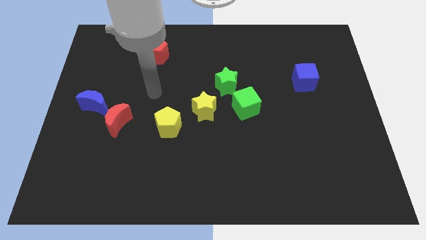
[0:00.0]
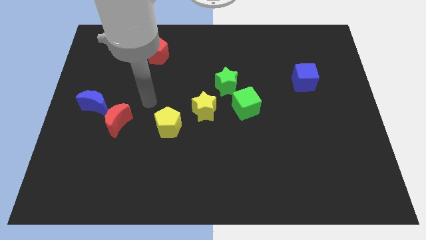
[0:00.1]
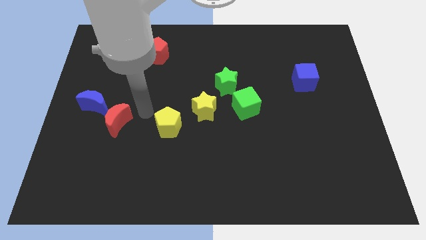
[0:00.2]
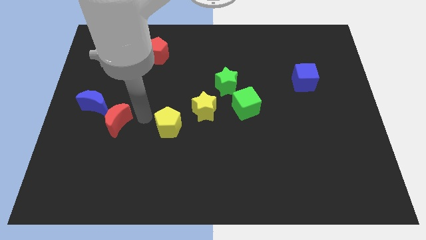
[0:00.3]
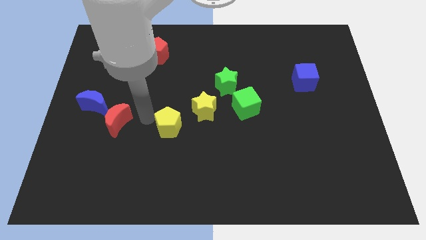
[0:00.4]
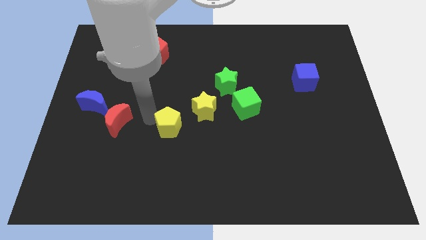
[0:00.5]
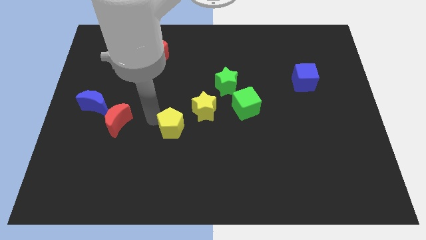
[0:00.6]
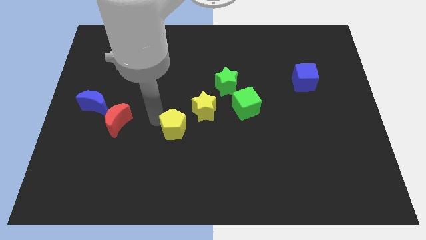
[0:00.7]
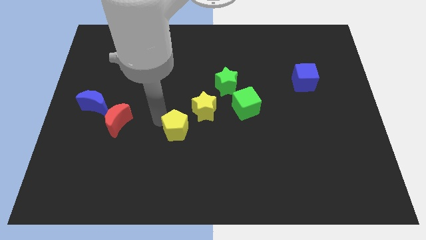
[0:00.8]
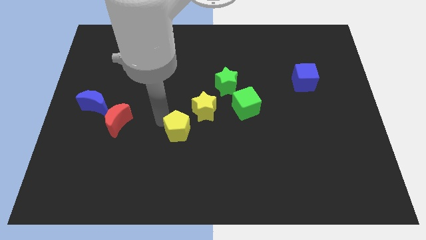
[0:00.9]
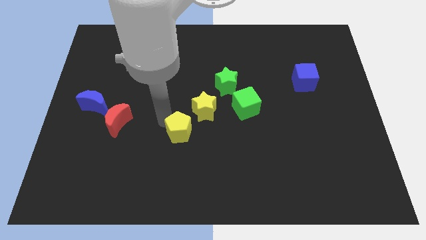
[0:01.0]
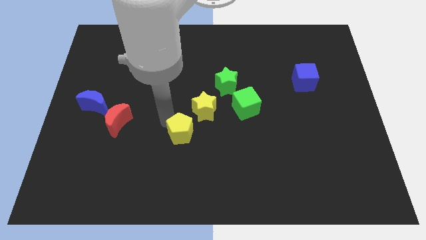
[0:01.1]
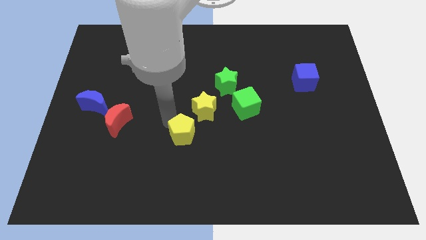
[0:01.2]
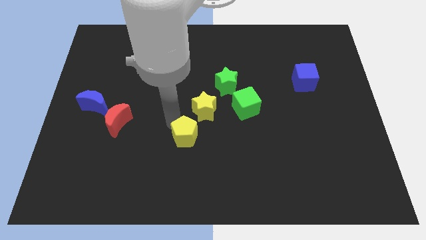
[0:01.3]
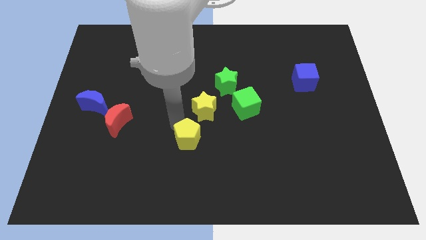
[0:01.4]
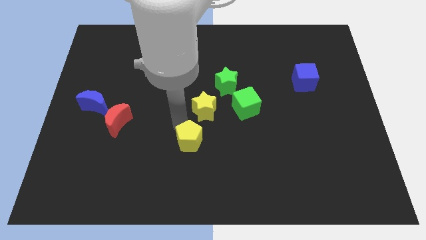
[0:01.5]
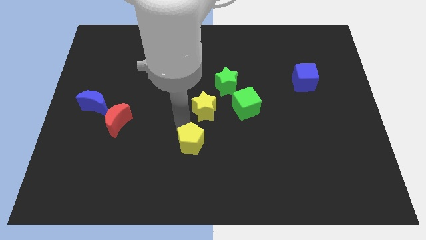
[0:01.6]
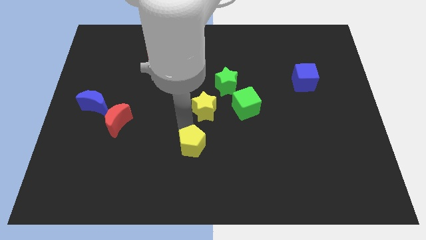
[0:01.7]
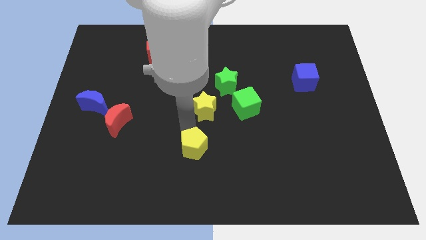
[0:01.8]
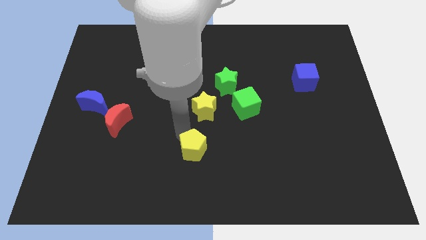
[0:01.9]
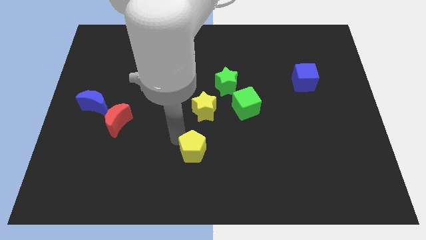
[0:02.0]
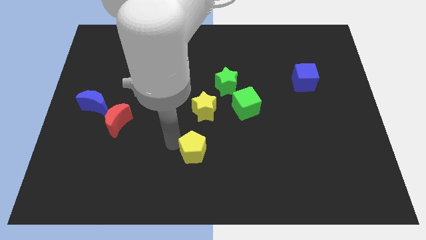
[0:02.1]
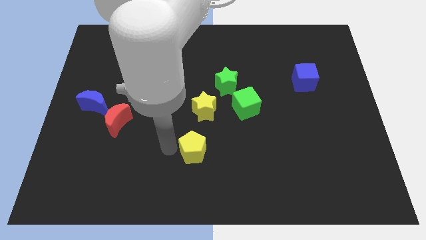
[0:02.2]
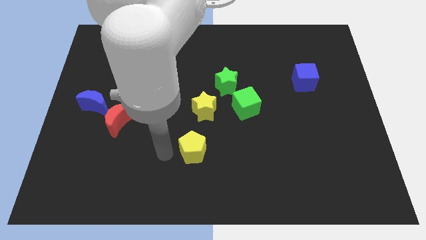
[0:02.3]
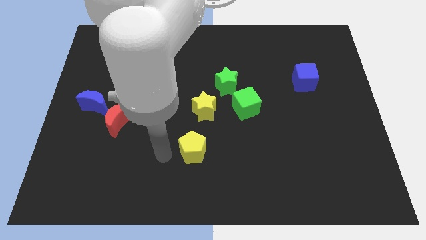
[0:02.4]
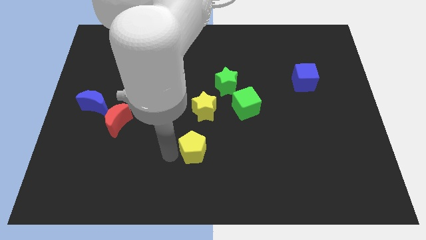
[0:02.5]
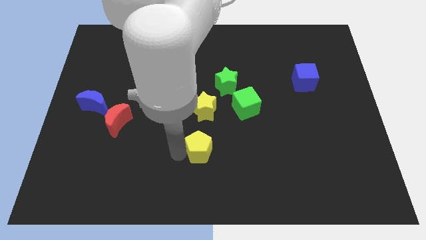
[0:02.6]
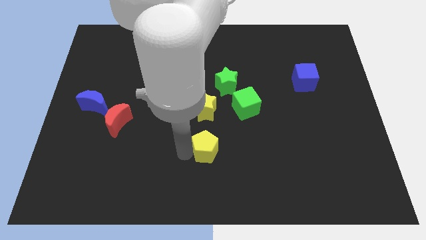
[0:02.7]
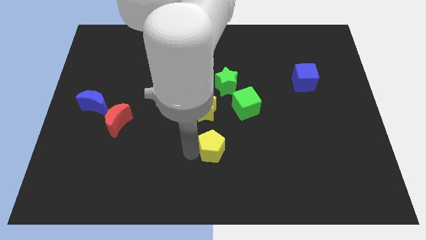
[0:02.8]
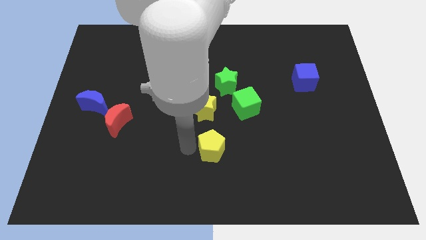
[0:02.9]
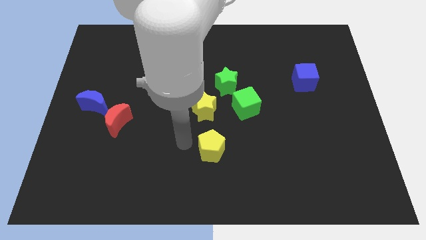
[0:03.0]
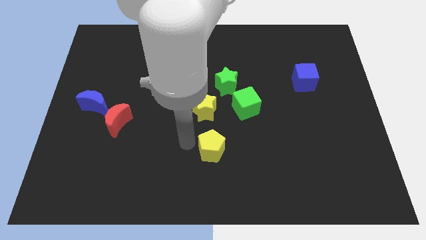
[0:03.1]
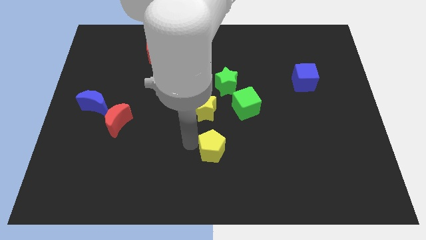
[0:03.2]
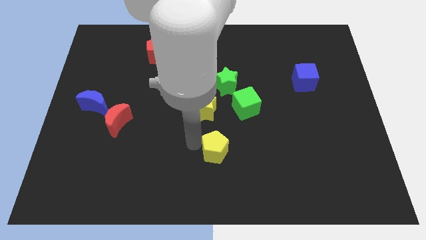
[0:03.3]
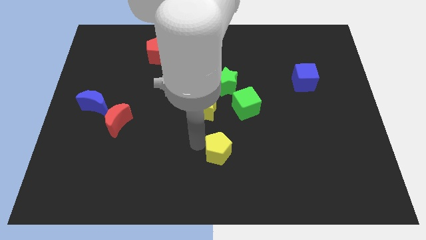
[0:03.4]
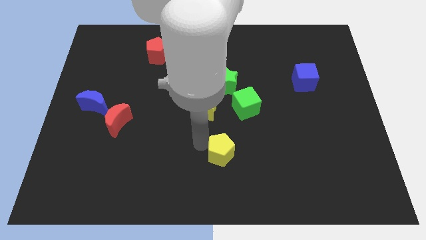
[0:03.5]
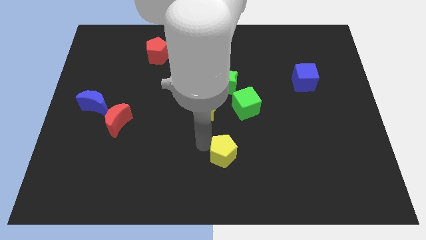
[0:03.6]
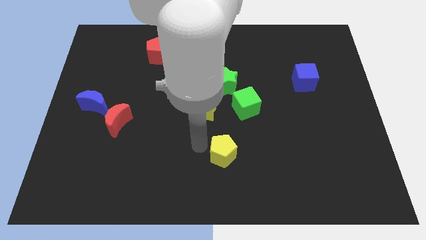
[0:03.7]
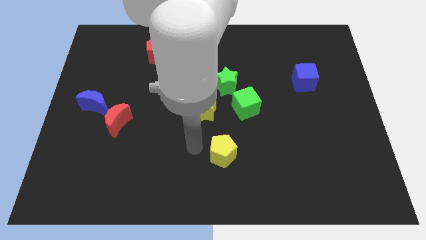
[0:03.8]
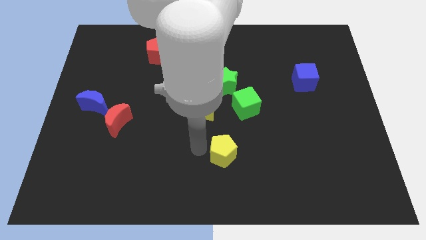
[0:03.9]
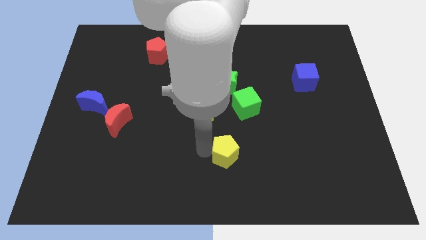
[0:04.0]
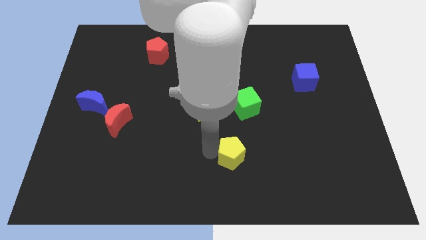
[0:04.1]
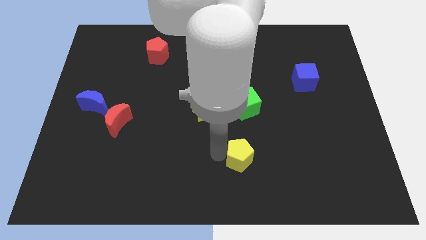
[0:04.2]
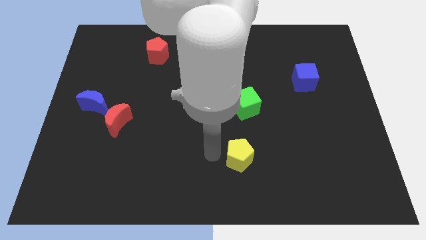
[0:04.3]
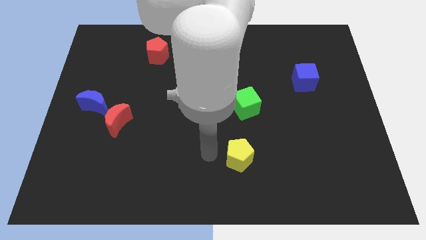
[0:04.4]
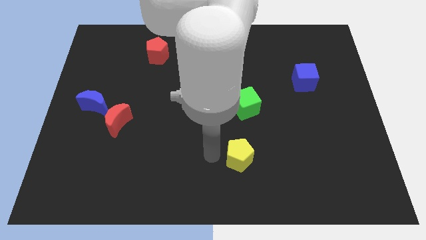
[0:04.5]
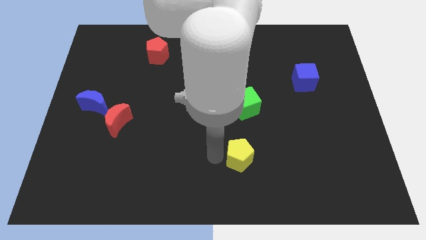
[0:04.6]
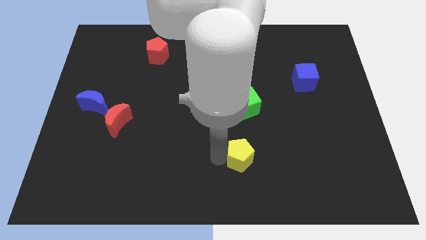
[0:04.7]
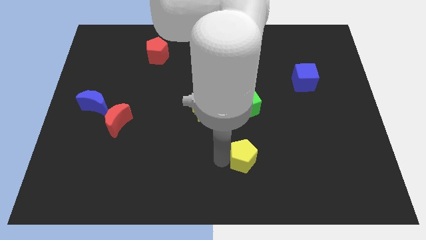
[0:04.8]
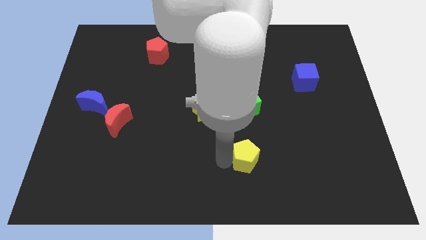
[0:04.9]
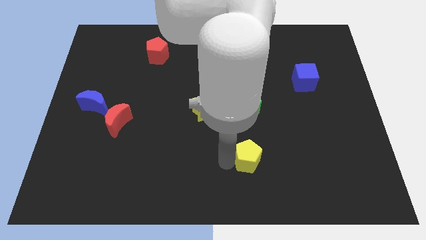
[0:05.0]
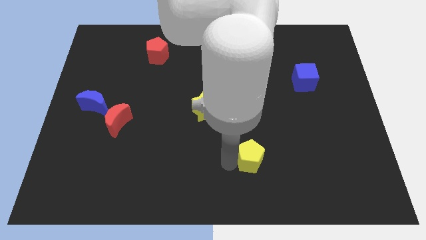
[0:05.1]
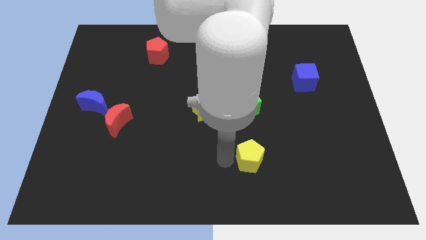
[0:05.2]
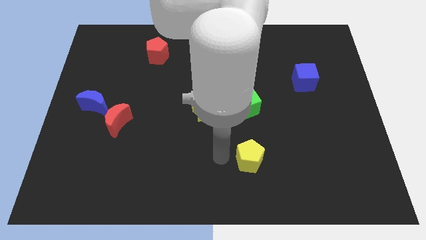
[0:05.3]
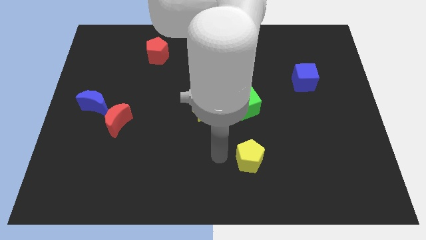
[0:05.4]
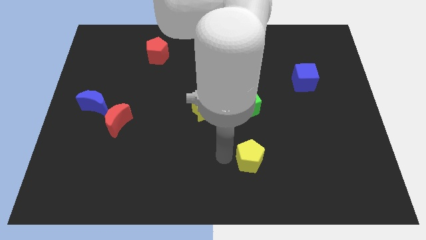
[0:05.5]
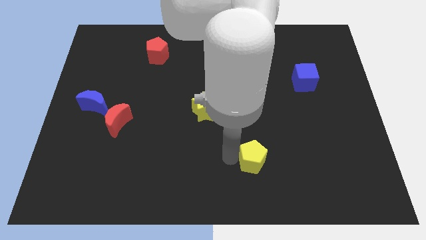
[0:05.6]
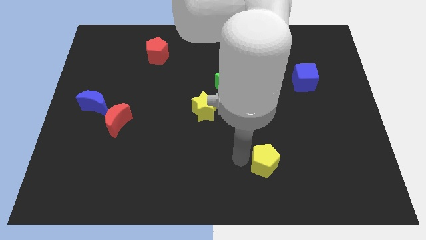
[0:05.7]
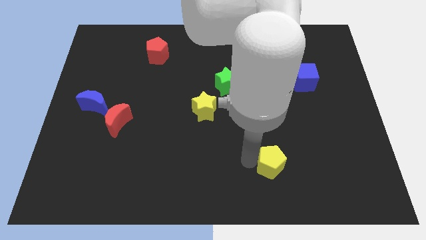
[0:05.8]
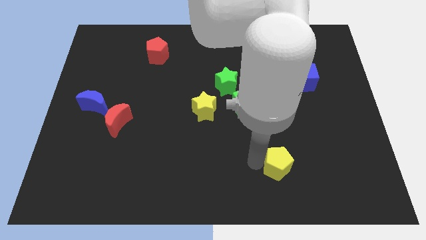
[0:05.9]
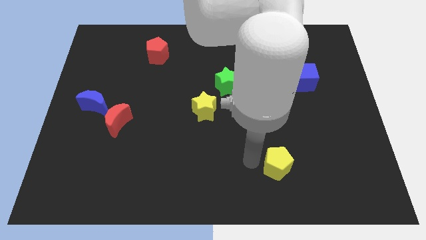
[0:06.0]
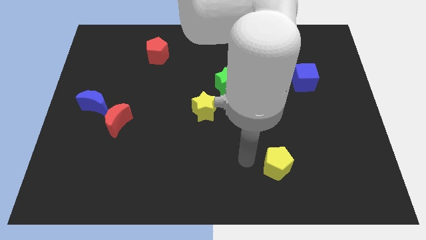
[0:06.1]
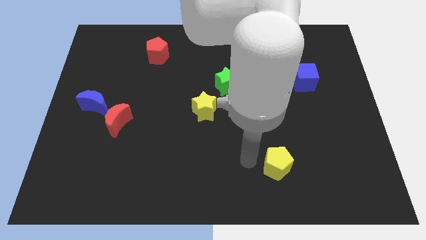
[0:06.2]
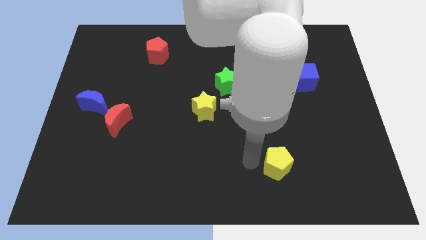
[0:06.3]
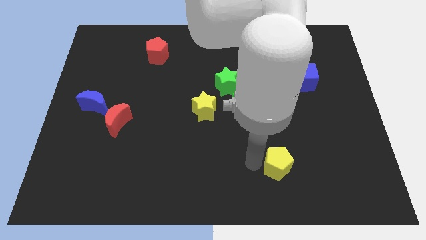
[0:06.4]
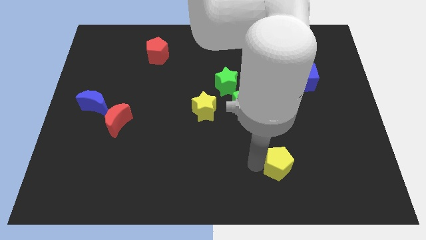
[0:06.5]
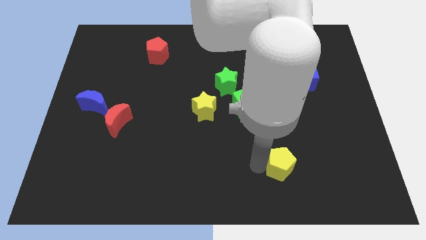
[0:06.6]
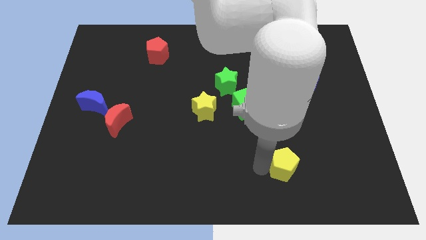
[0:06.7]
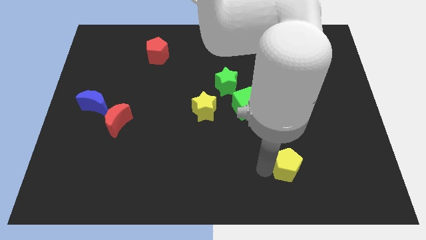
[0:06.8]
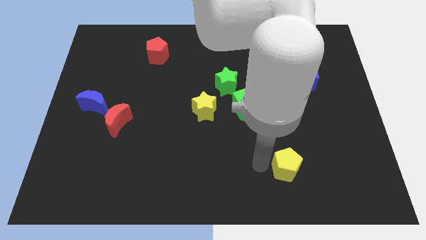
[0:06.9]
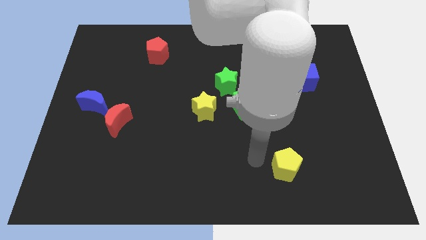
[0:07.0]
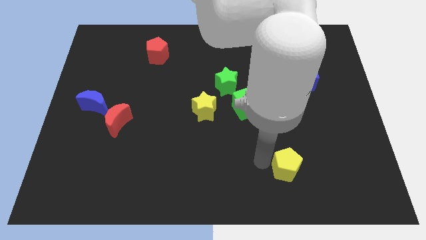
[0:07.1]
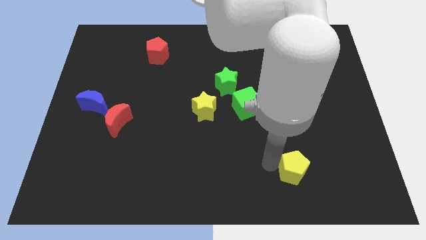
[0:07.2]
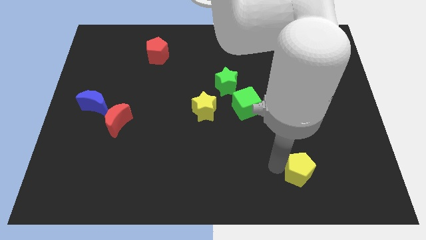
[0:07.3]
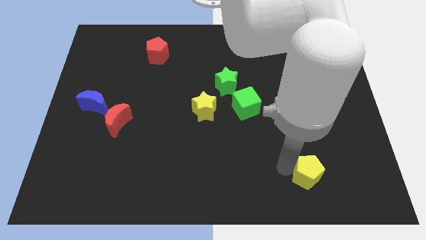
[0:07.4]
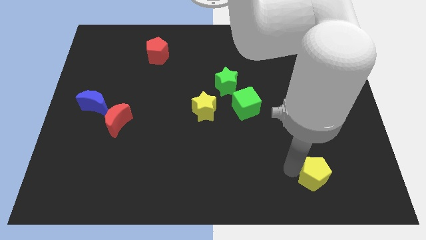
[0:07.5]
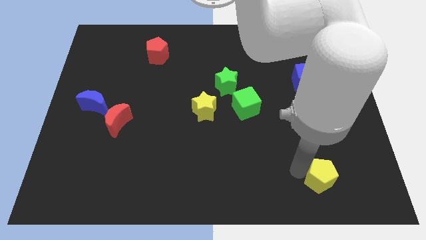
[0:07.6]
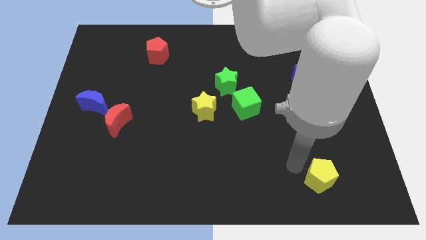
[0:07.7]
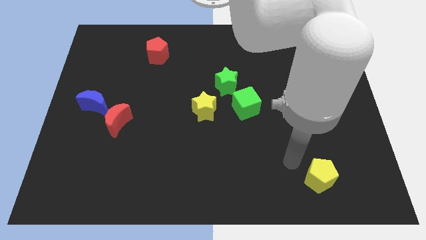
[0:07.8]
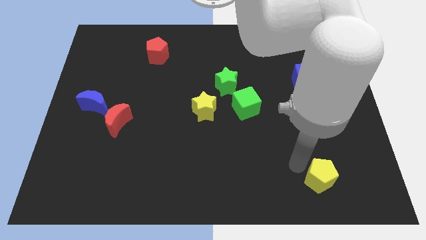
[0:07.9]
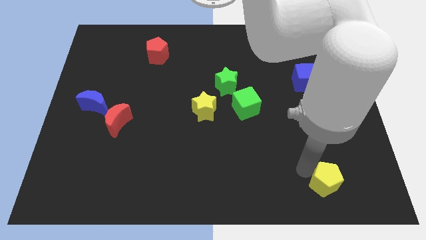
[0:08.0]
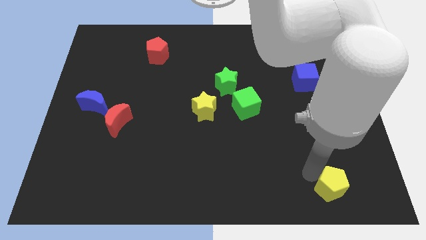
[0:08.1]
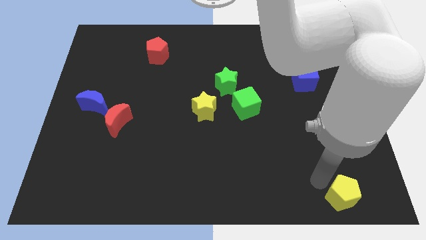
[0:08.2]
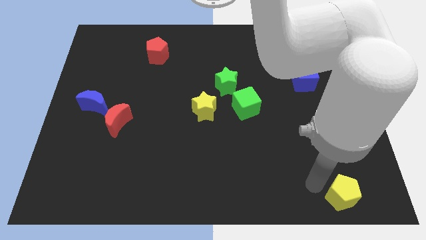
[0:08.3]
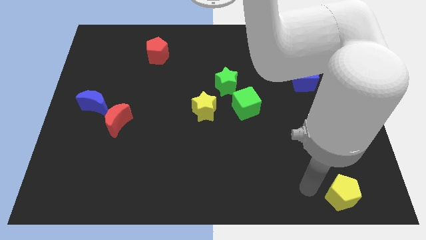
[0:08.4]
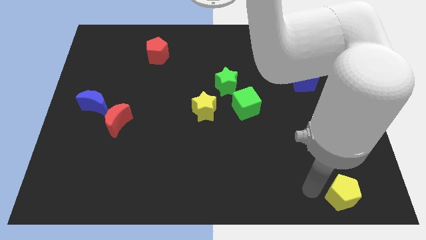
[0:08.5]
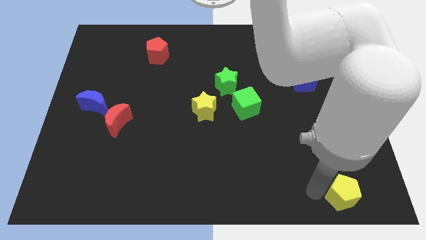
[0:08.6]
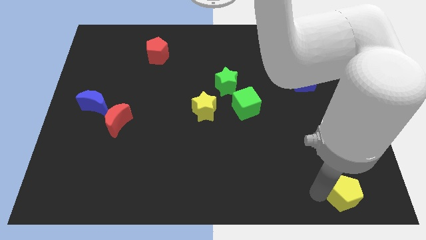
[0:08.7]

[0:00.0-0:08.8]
move the yellow pentagon to the bottom right of the board
